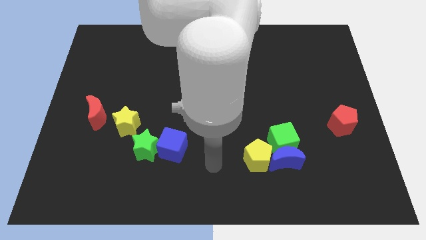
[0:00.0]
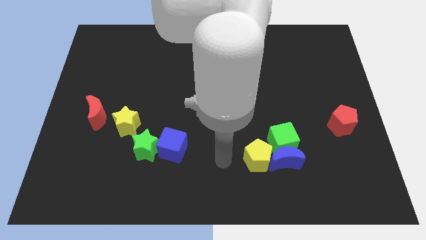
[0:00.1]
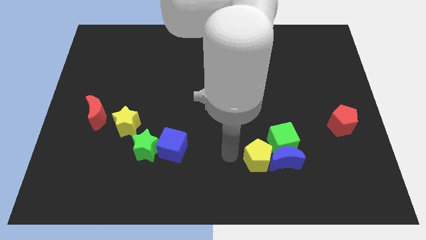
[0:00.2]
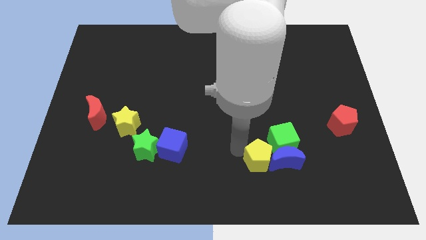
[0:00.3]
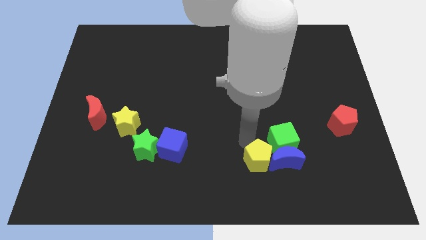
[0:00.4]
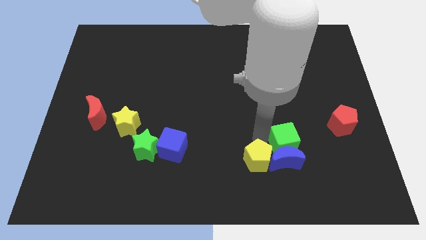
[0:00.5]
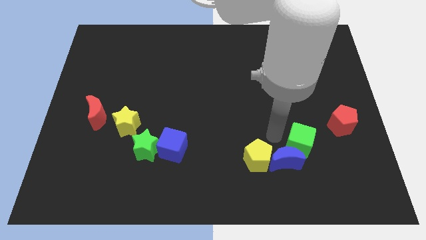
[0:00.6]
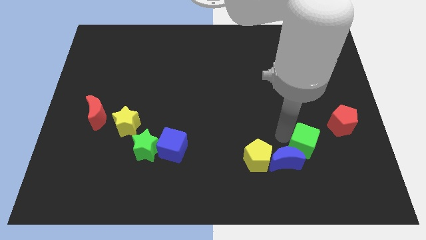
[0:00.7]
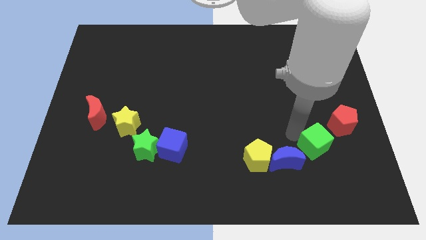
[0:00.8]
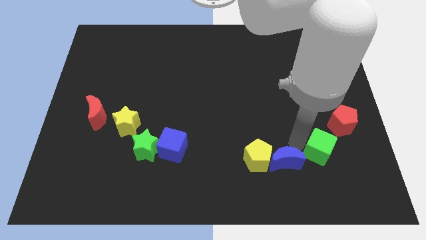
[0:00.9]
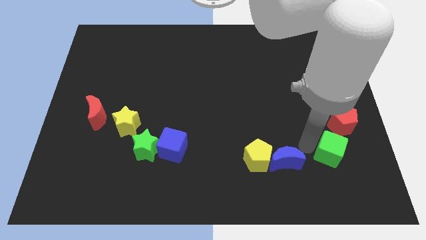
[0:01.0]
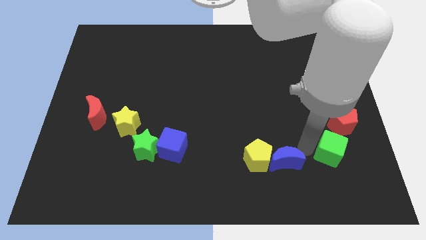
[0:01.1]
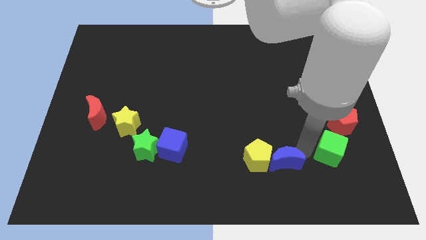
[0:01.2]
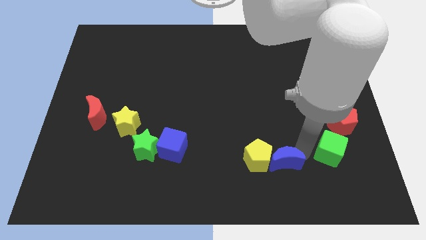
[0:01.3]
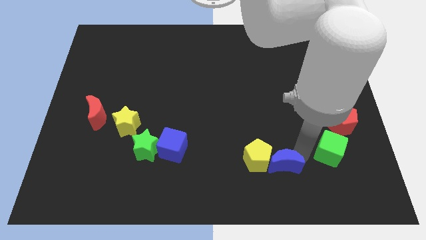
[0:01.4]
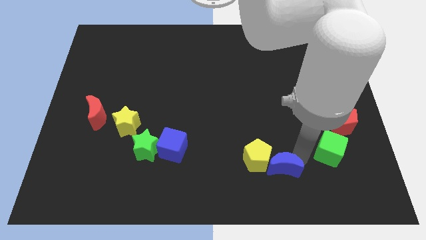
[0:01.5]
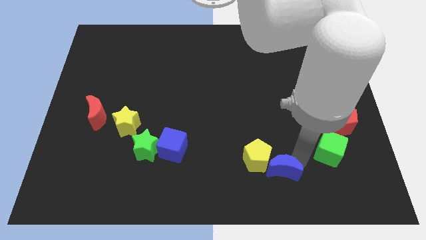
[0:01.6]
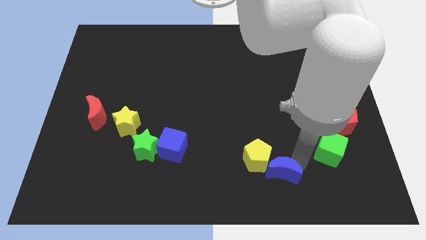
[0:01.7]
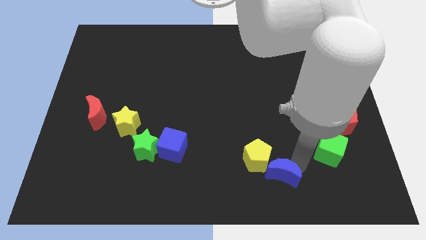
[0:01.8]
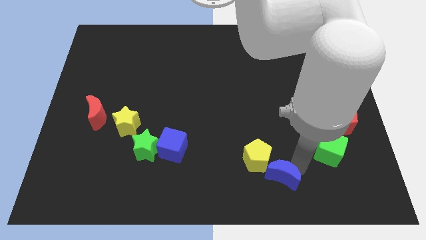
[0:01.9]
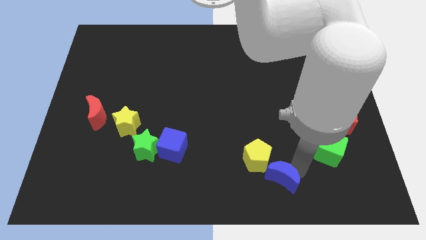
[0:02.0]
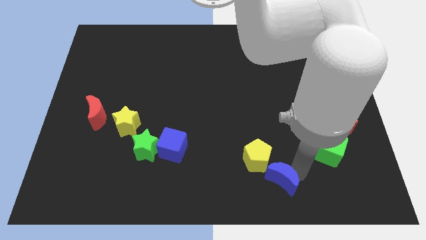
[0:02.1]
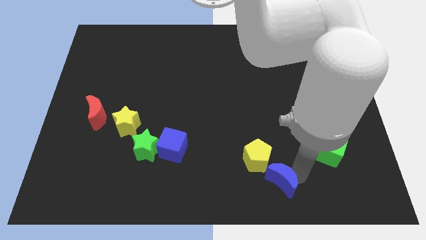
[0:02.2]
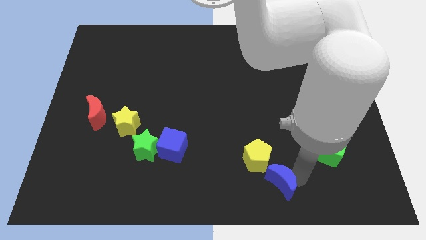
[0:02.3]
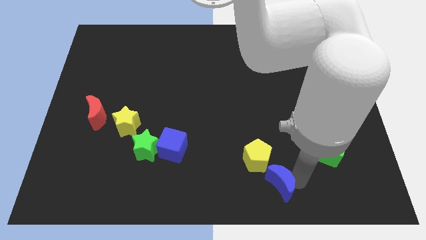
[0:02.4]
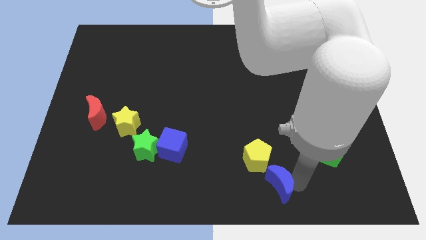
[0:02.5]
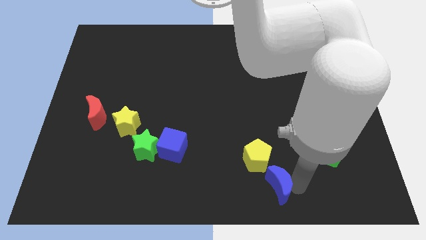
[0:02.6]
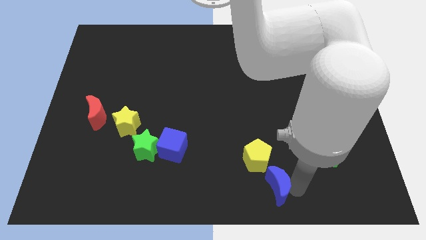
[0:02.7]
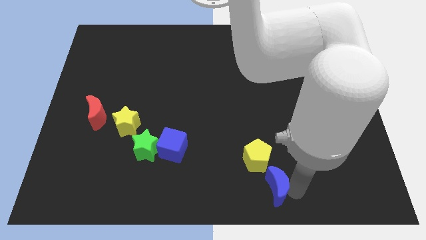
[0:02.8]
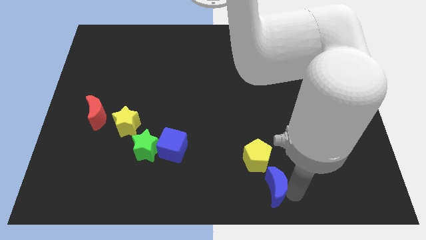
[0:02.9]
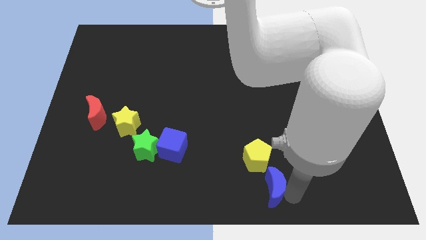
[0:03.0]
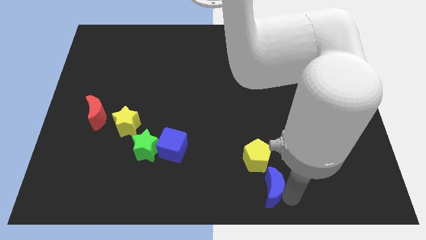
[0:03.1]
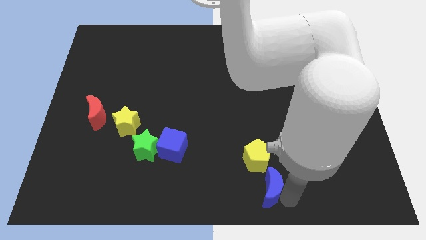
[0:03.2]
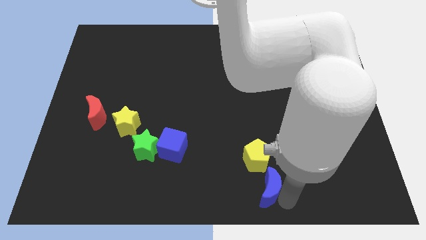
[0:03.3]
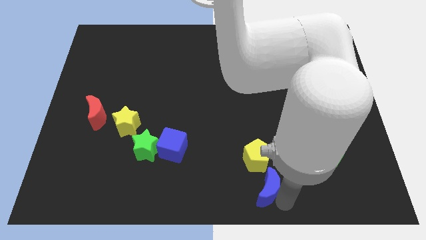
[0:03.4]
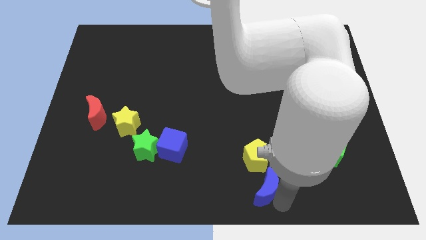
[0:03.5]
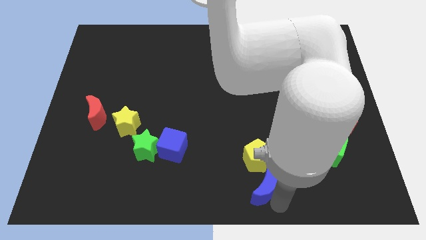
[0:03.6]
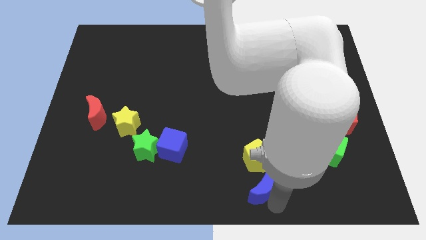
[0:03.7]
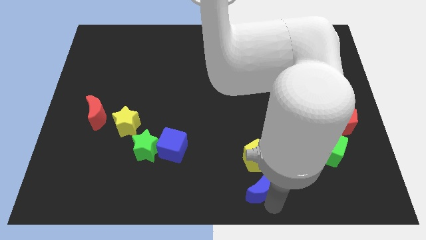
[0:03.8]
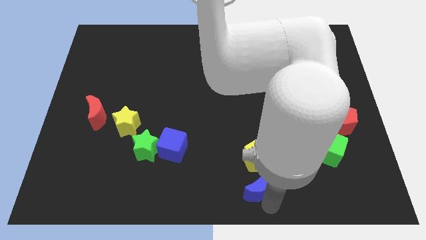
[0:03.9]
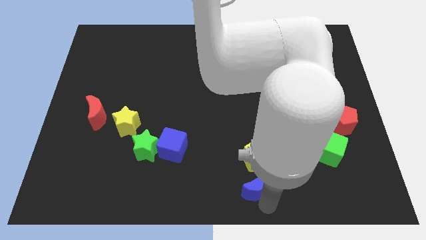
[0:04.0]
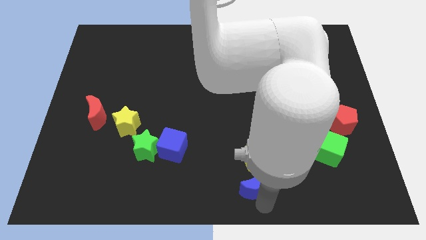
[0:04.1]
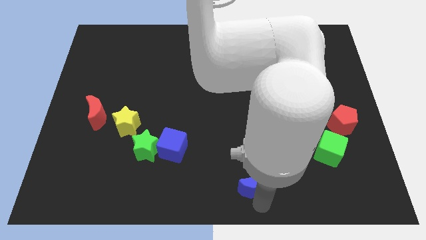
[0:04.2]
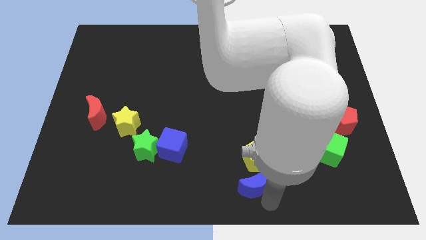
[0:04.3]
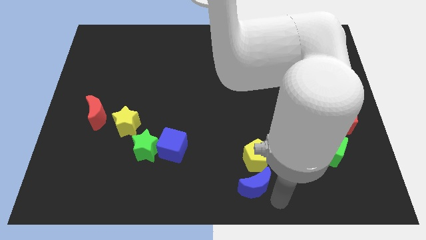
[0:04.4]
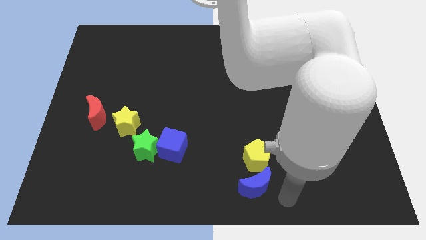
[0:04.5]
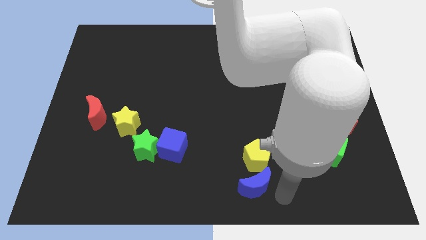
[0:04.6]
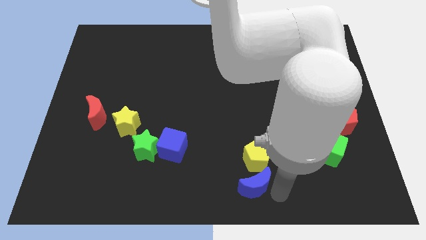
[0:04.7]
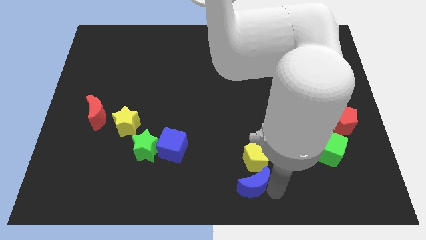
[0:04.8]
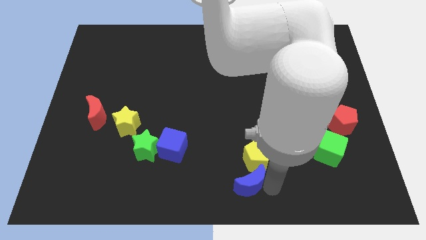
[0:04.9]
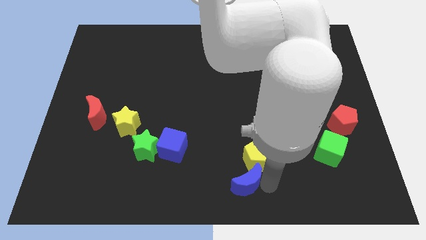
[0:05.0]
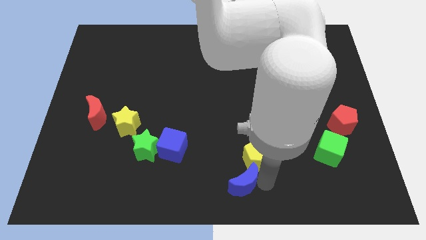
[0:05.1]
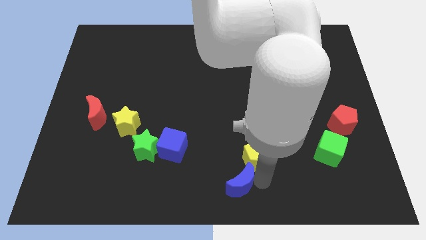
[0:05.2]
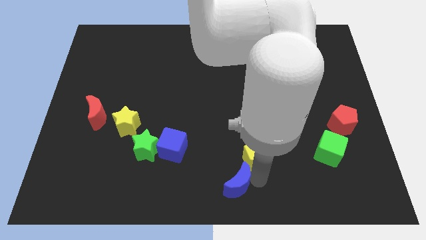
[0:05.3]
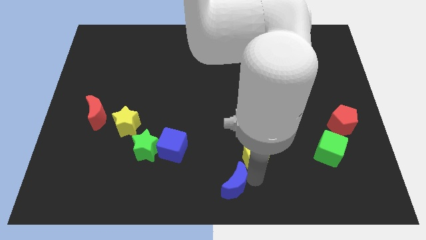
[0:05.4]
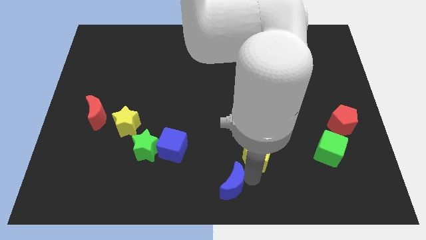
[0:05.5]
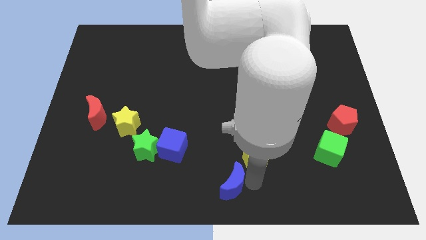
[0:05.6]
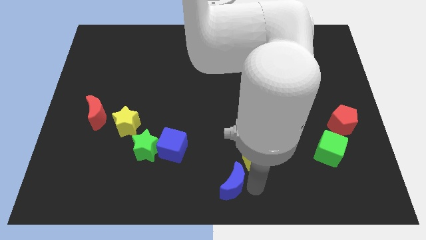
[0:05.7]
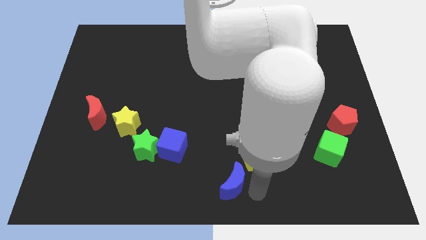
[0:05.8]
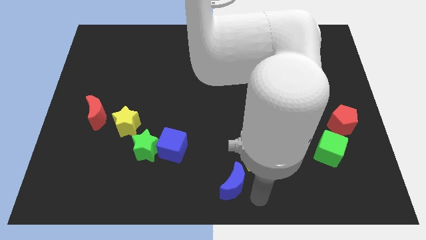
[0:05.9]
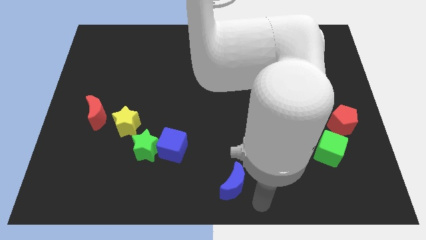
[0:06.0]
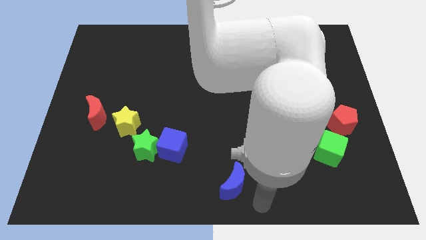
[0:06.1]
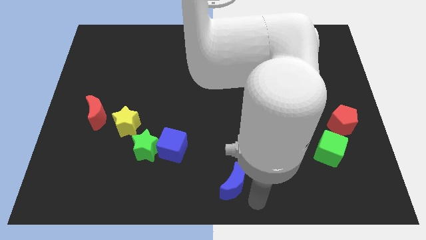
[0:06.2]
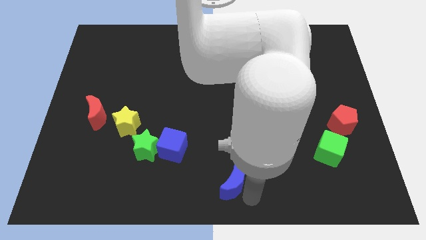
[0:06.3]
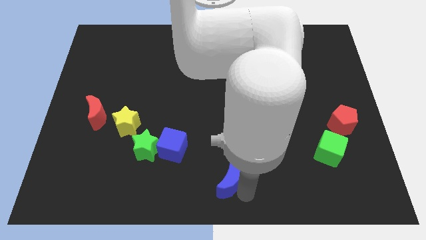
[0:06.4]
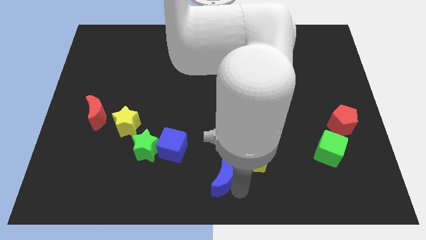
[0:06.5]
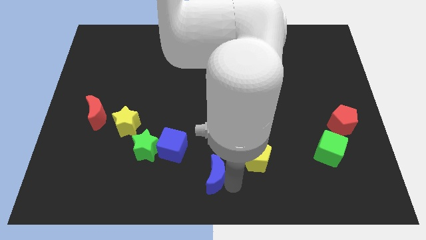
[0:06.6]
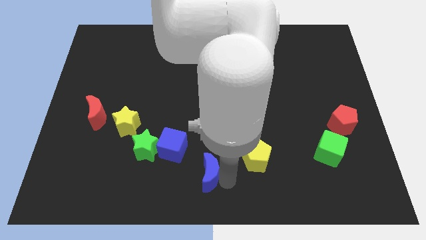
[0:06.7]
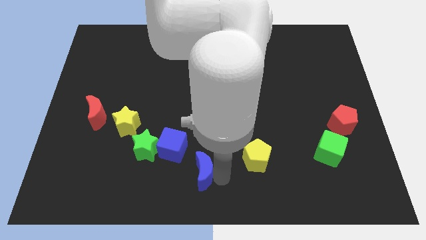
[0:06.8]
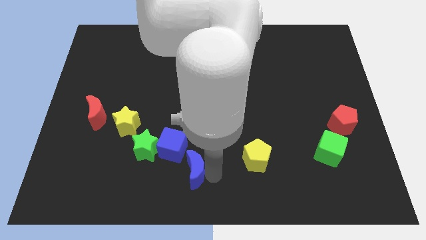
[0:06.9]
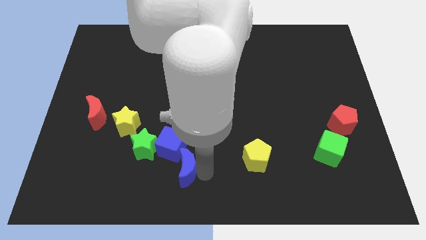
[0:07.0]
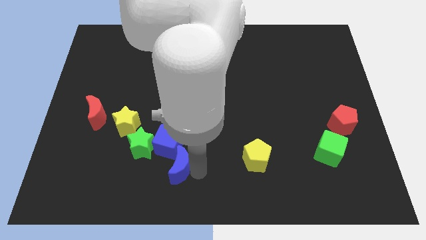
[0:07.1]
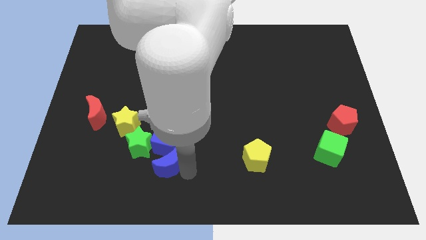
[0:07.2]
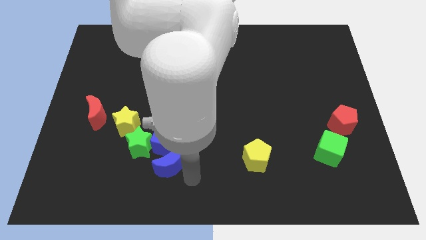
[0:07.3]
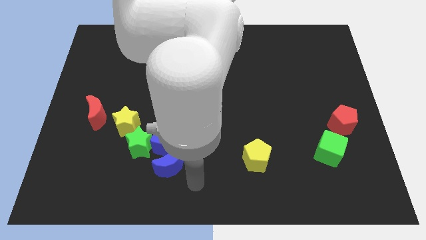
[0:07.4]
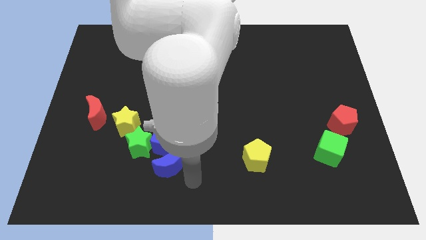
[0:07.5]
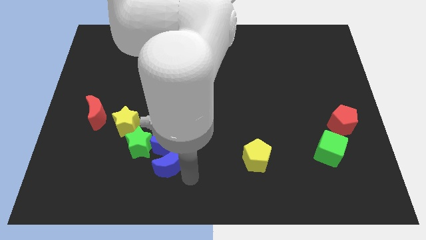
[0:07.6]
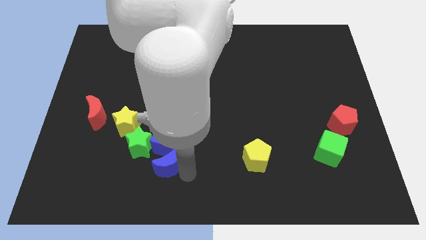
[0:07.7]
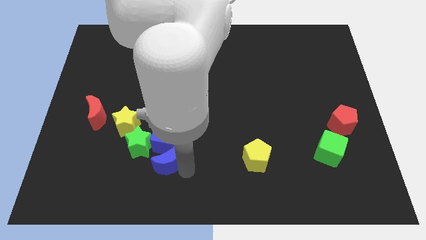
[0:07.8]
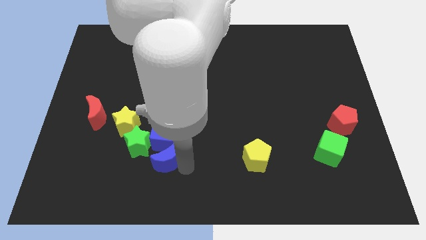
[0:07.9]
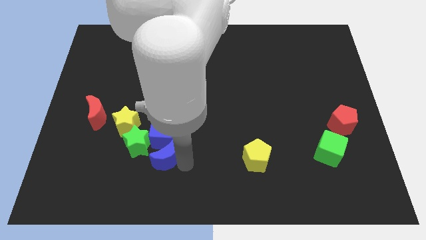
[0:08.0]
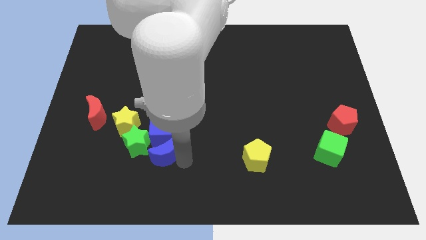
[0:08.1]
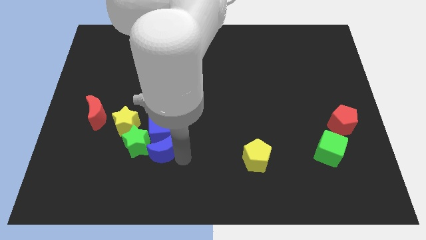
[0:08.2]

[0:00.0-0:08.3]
slide the blue moon to the green star
